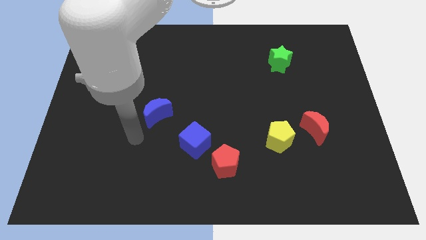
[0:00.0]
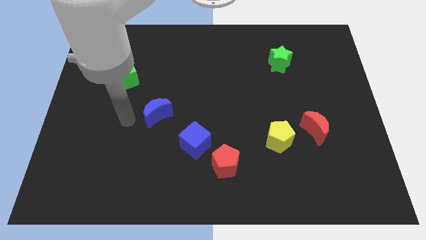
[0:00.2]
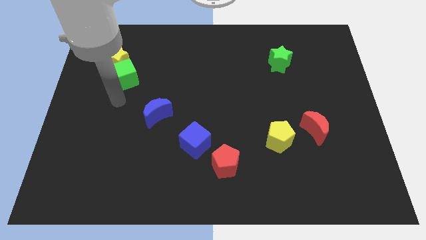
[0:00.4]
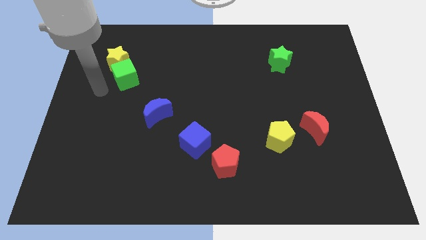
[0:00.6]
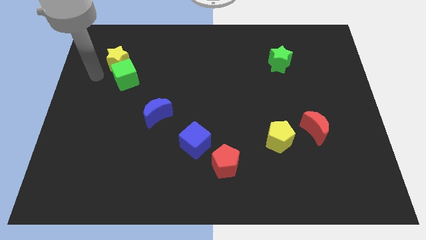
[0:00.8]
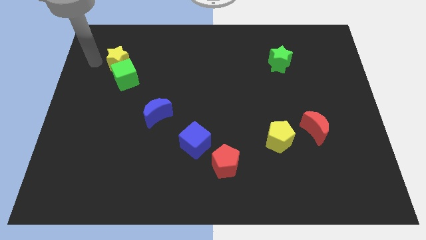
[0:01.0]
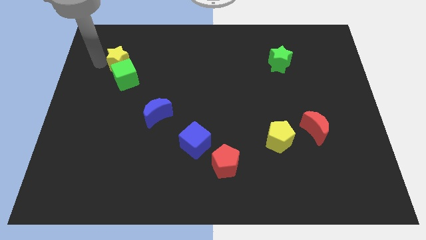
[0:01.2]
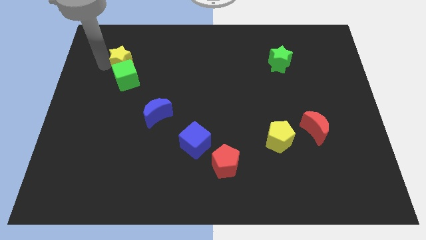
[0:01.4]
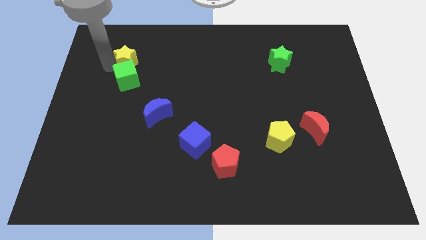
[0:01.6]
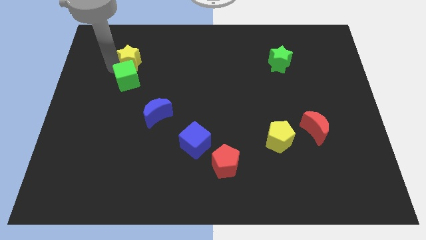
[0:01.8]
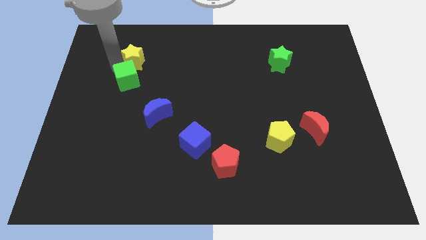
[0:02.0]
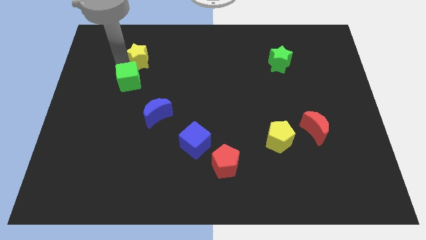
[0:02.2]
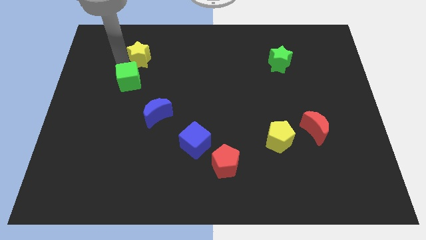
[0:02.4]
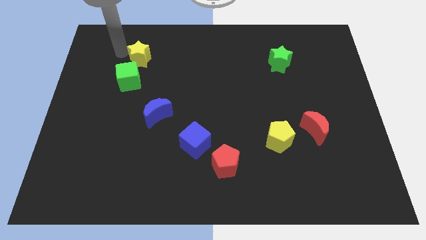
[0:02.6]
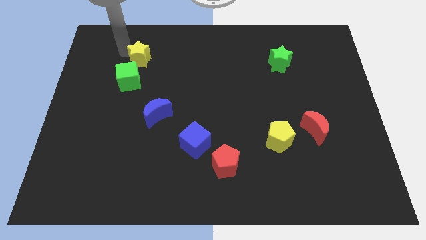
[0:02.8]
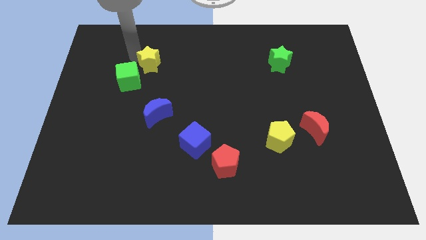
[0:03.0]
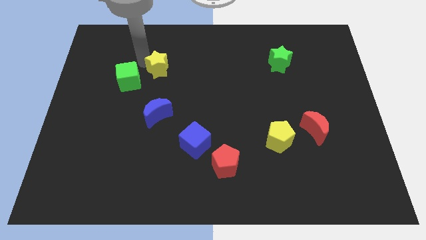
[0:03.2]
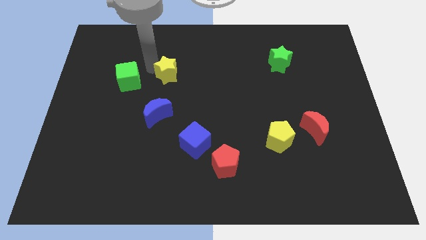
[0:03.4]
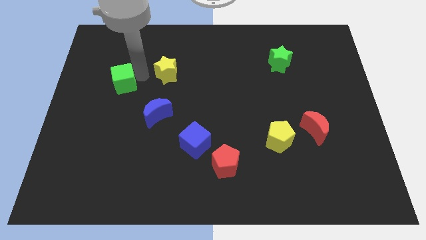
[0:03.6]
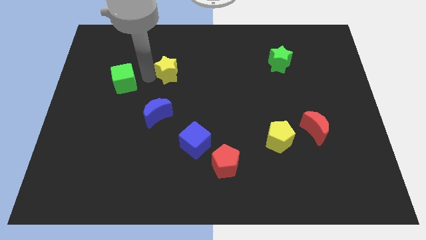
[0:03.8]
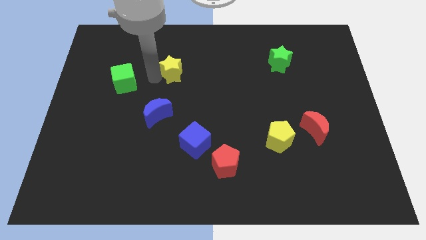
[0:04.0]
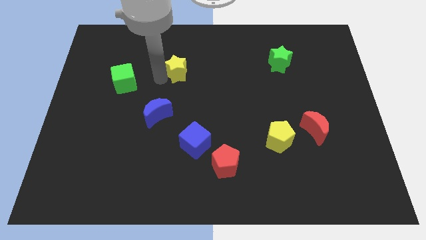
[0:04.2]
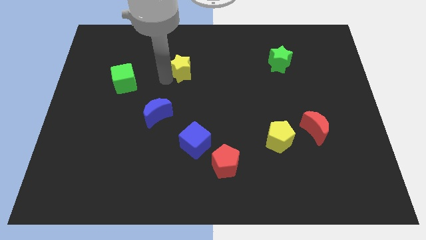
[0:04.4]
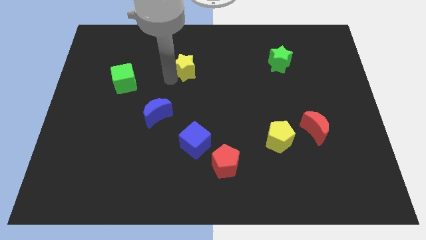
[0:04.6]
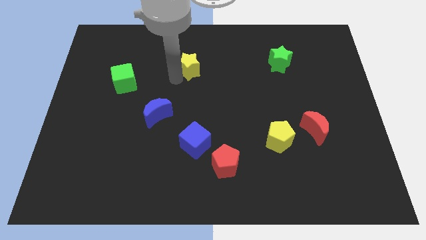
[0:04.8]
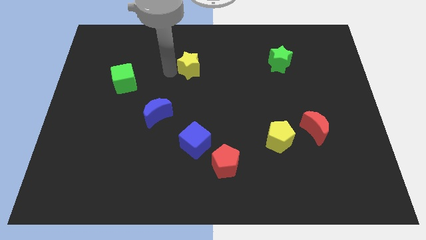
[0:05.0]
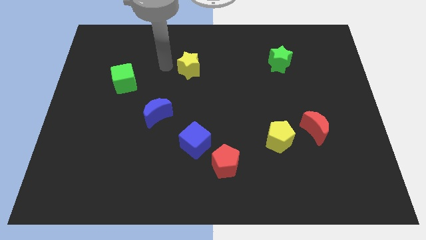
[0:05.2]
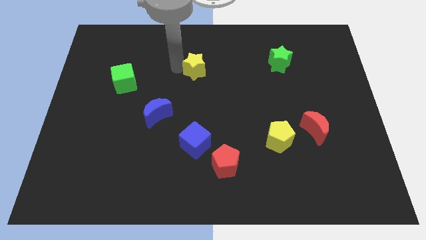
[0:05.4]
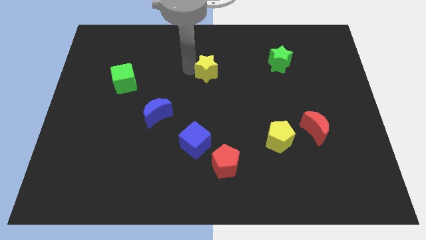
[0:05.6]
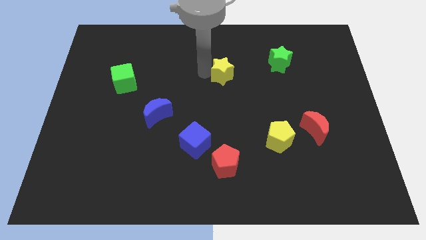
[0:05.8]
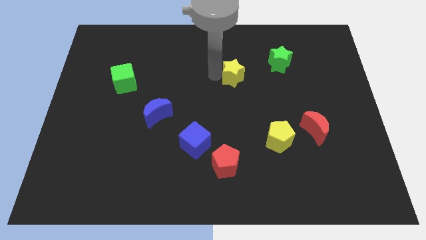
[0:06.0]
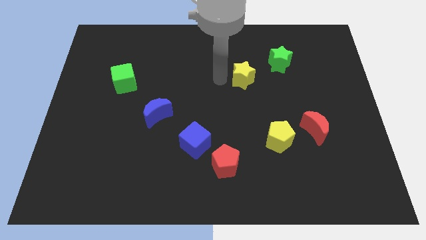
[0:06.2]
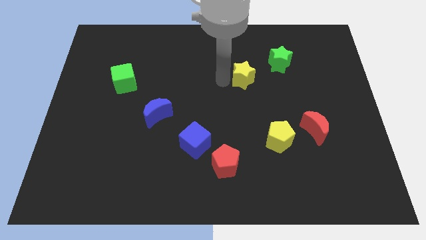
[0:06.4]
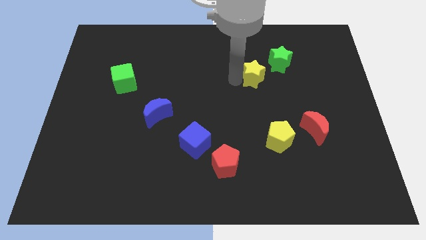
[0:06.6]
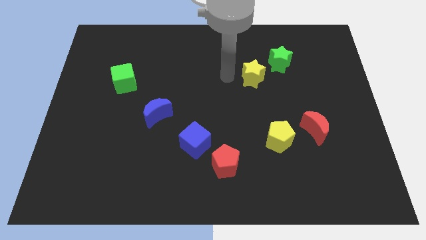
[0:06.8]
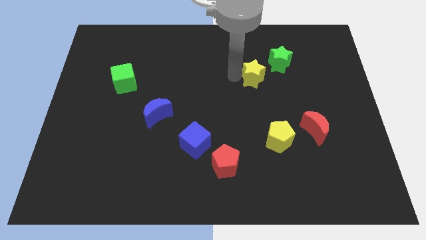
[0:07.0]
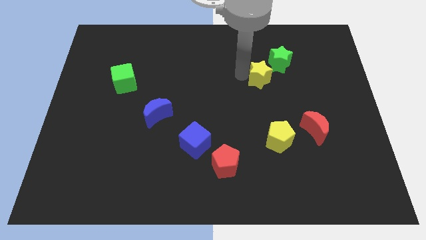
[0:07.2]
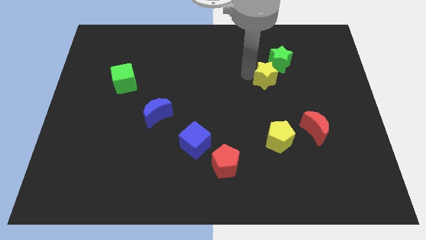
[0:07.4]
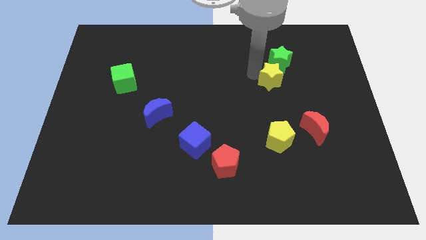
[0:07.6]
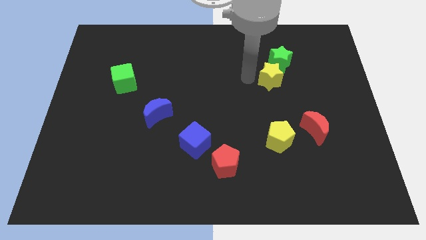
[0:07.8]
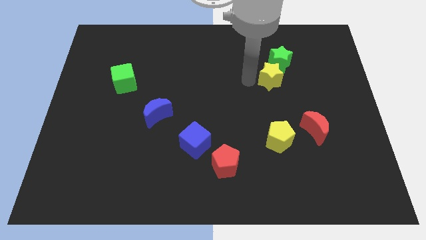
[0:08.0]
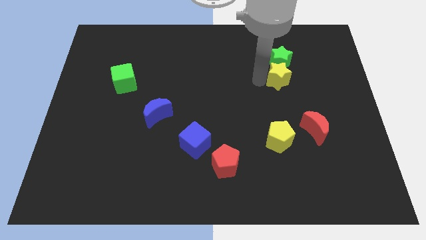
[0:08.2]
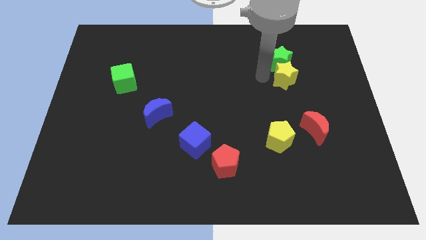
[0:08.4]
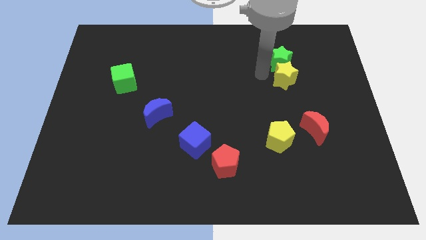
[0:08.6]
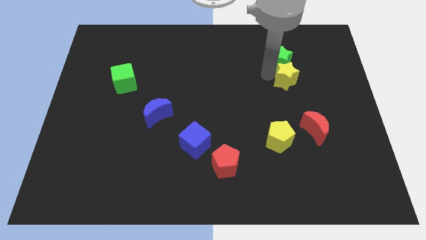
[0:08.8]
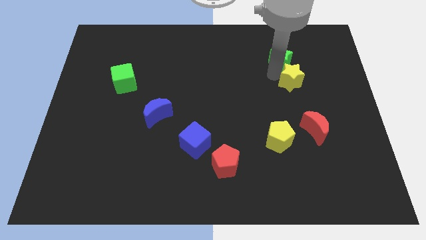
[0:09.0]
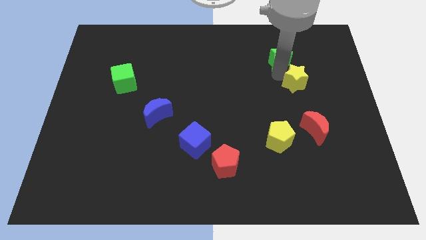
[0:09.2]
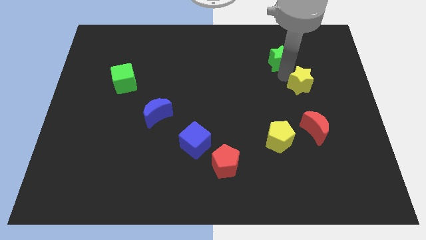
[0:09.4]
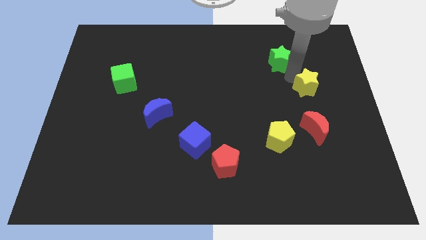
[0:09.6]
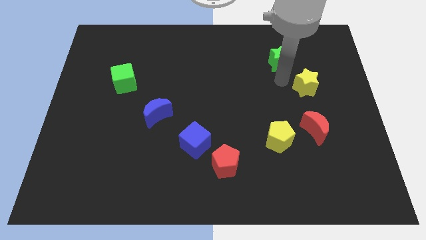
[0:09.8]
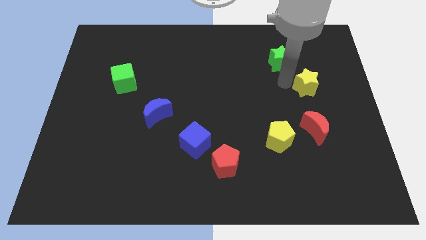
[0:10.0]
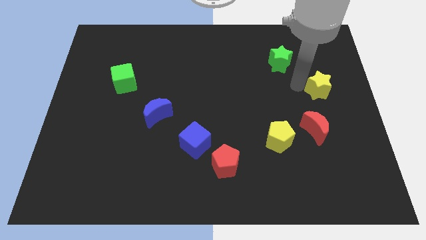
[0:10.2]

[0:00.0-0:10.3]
move the yellow star to the right side

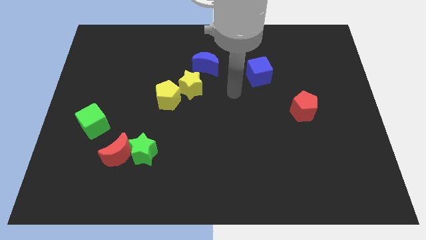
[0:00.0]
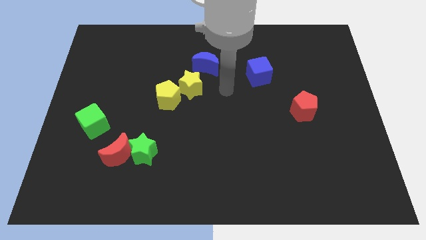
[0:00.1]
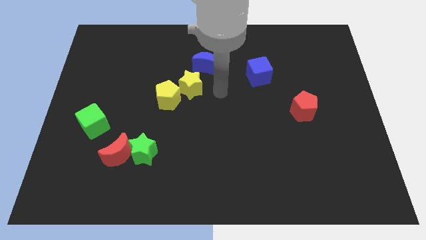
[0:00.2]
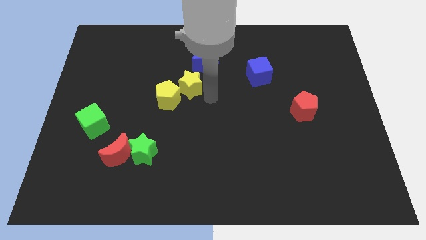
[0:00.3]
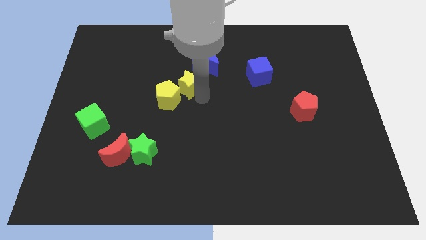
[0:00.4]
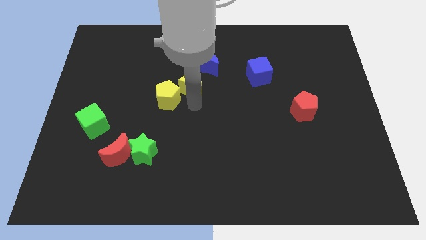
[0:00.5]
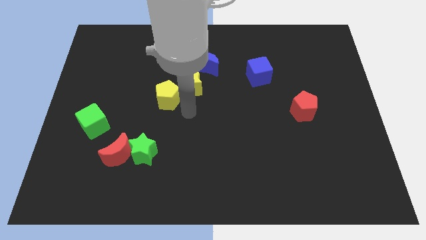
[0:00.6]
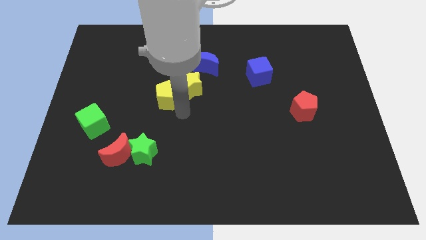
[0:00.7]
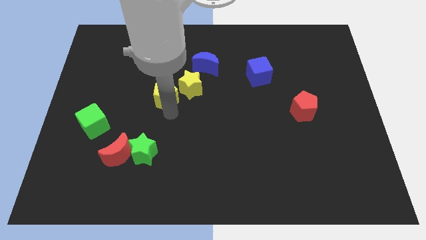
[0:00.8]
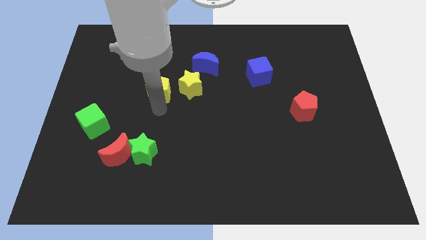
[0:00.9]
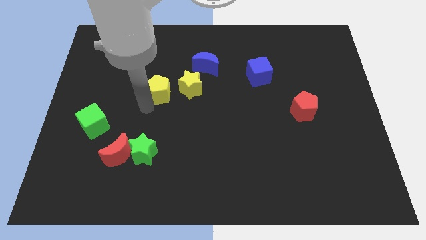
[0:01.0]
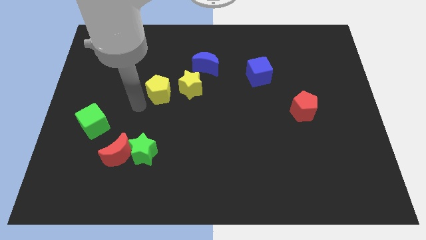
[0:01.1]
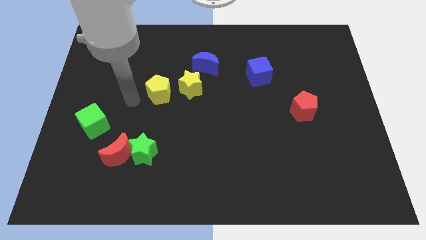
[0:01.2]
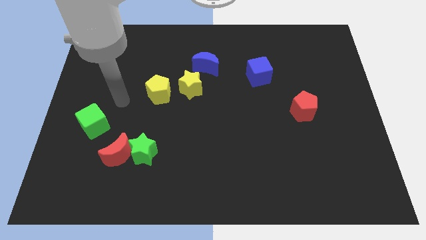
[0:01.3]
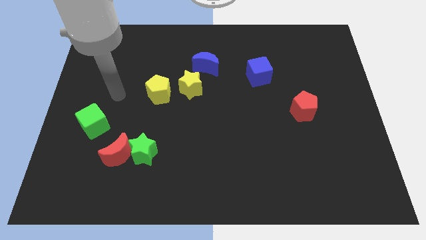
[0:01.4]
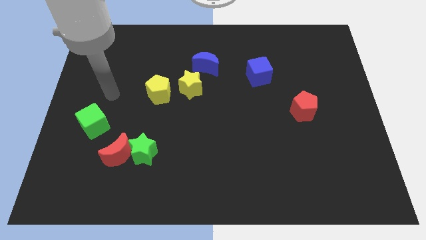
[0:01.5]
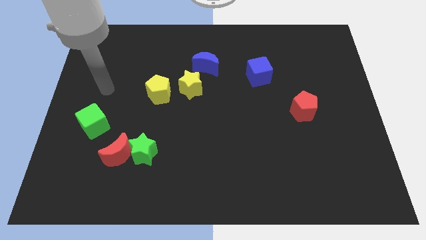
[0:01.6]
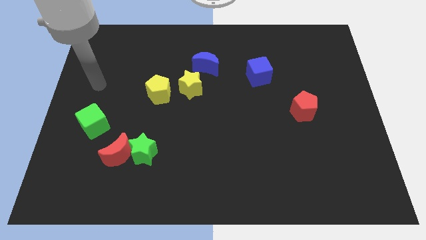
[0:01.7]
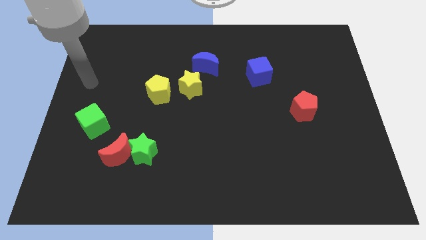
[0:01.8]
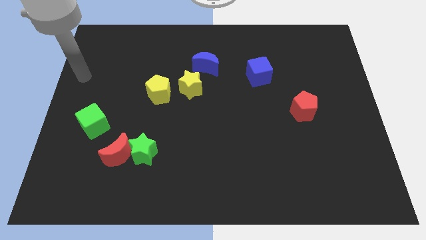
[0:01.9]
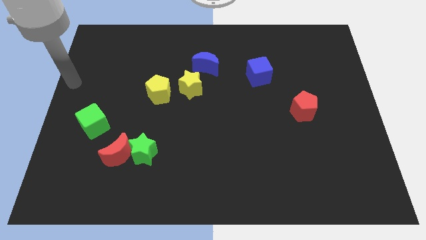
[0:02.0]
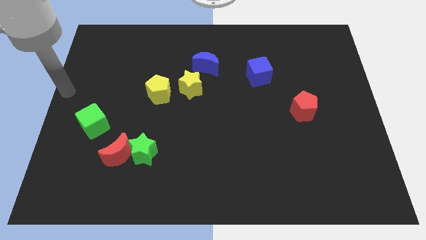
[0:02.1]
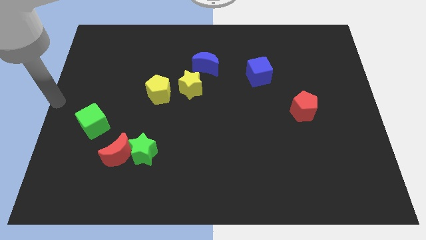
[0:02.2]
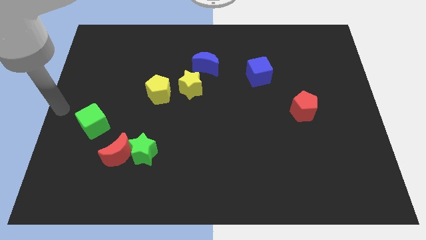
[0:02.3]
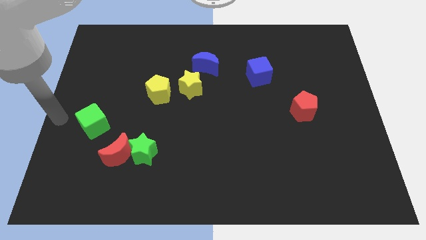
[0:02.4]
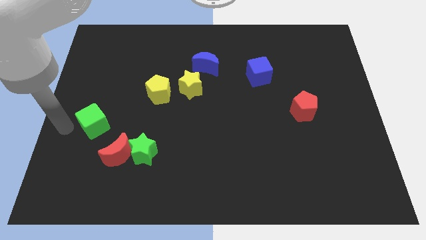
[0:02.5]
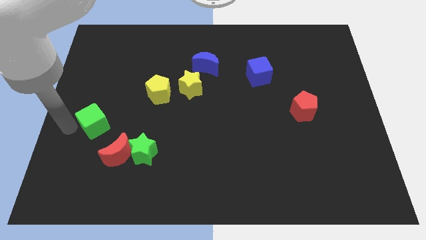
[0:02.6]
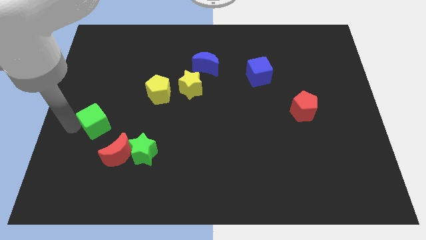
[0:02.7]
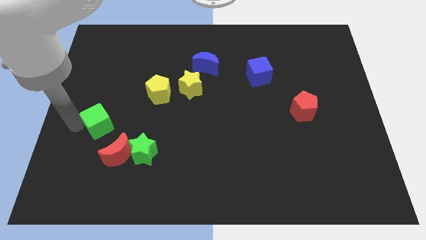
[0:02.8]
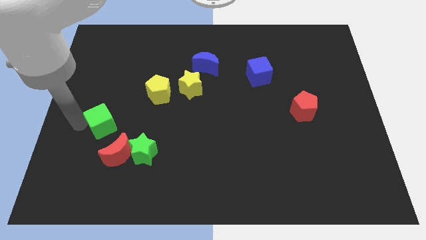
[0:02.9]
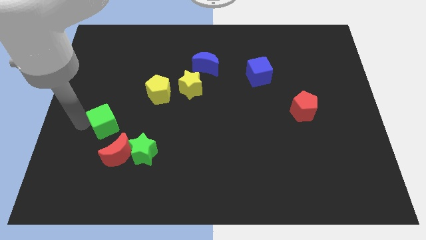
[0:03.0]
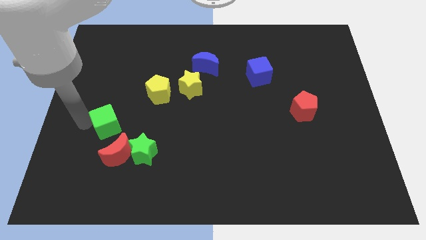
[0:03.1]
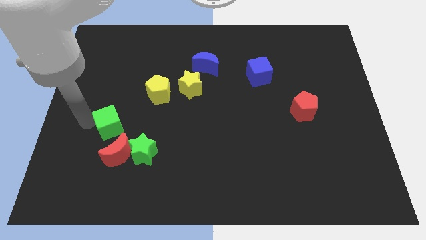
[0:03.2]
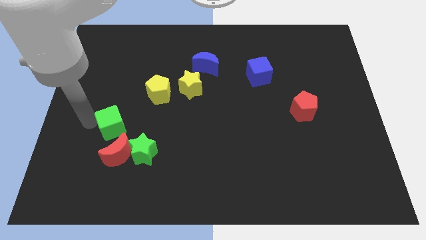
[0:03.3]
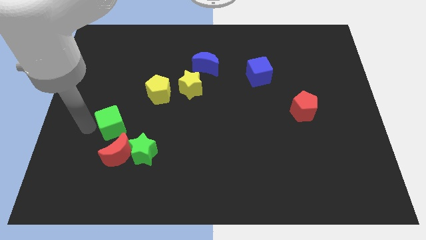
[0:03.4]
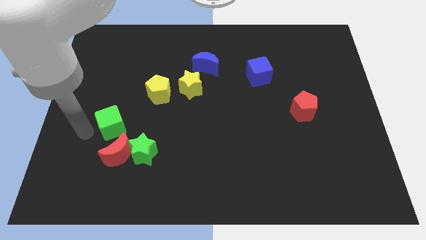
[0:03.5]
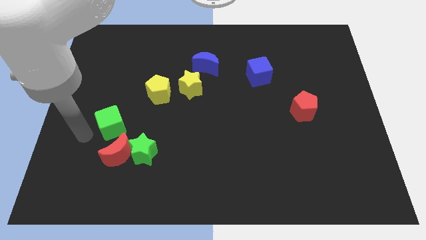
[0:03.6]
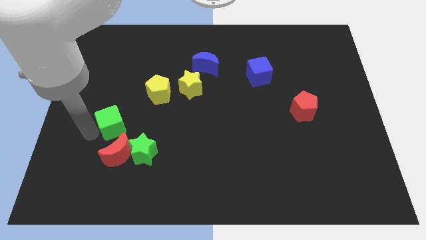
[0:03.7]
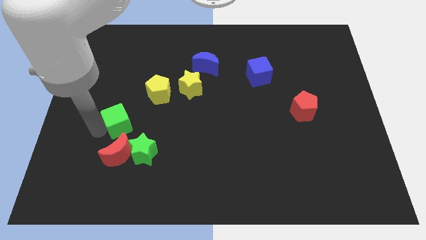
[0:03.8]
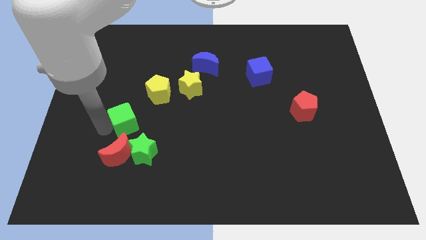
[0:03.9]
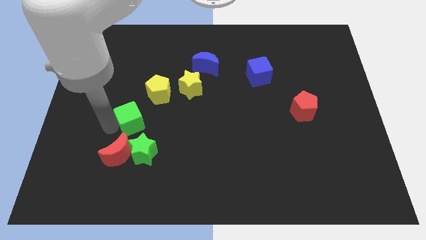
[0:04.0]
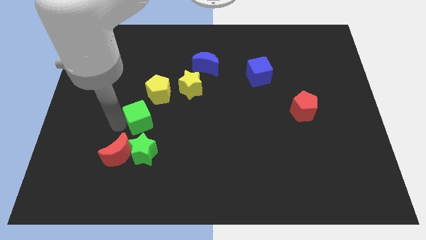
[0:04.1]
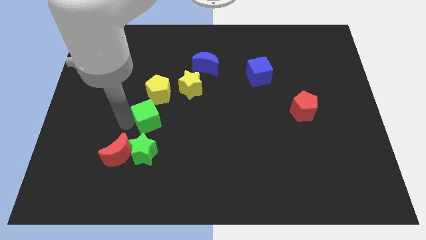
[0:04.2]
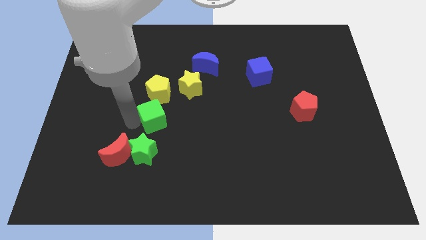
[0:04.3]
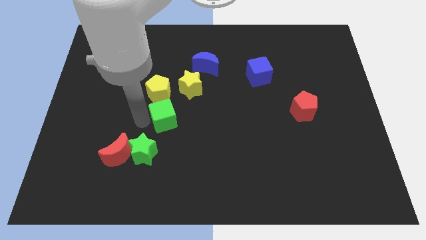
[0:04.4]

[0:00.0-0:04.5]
move the green cube to the middle
